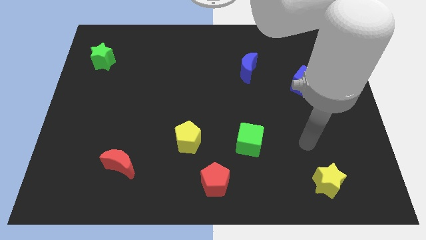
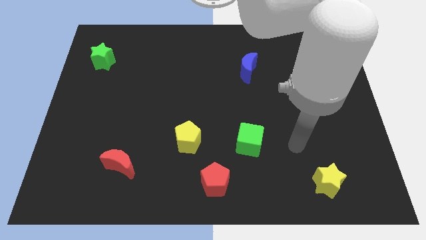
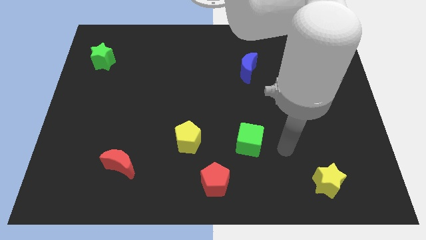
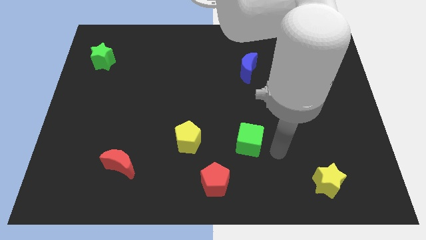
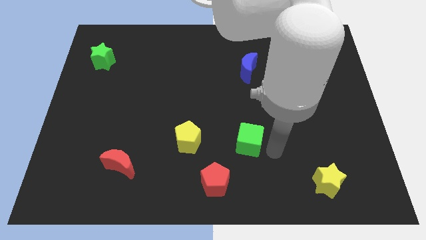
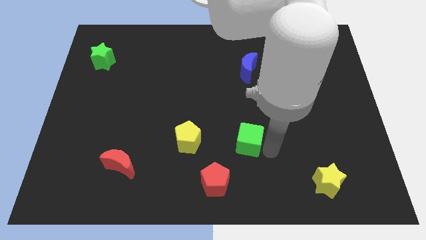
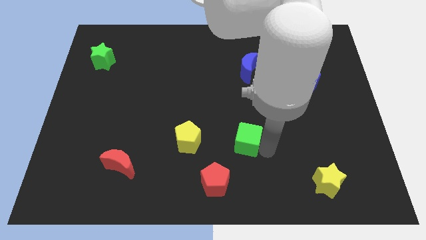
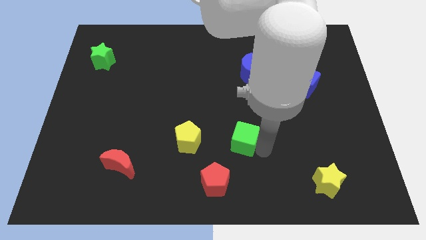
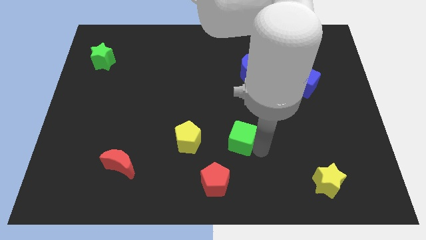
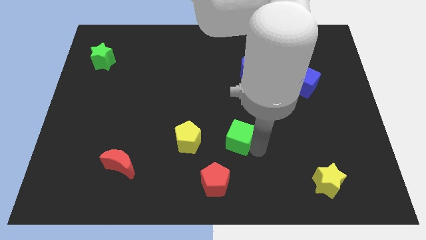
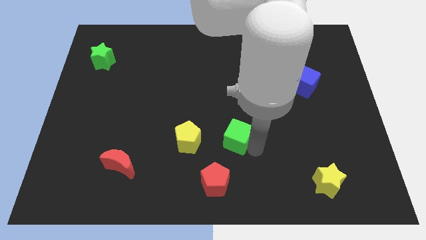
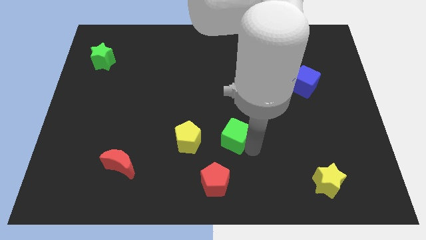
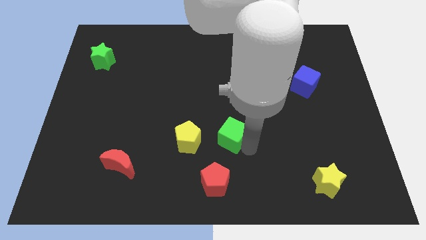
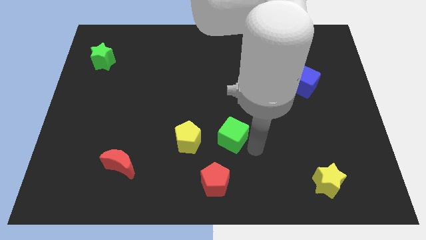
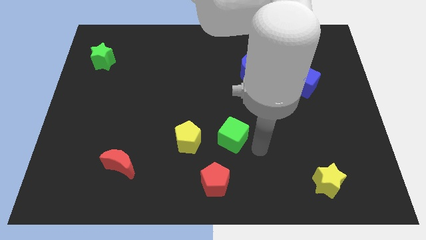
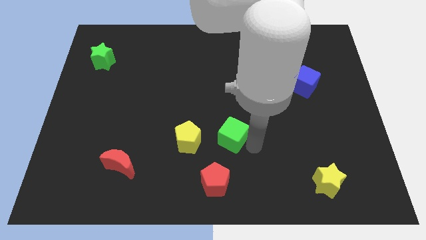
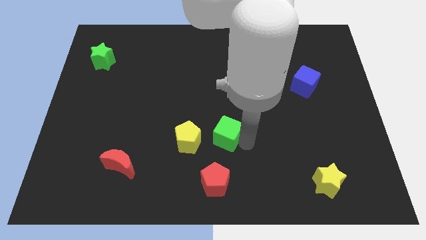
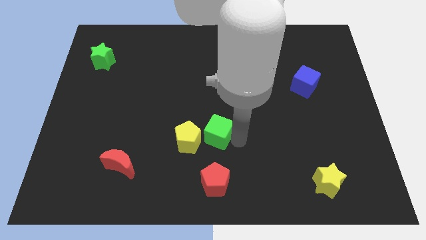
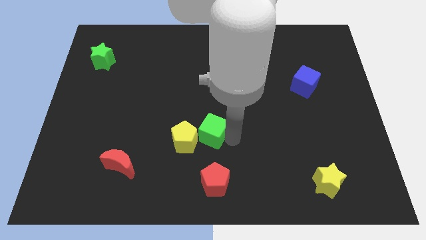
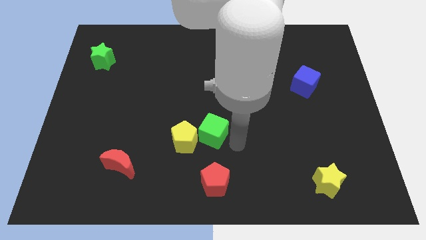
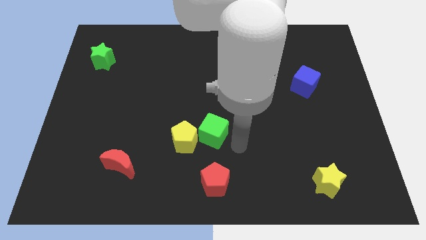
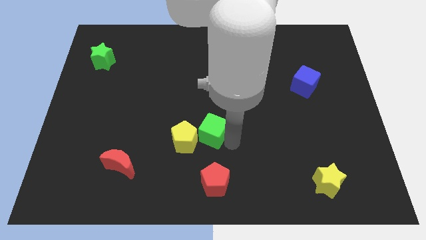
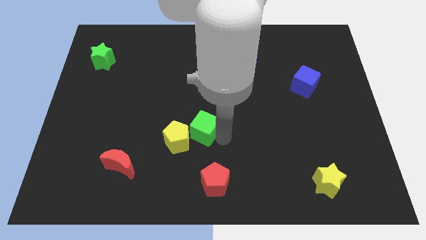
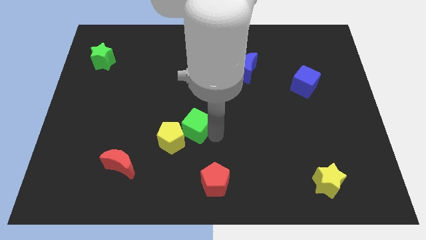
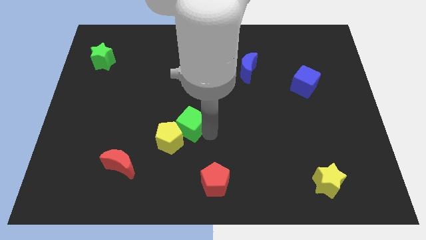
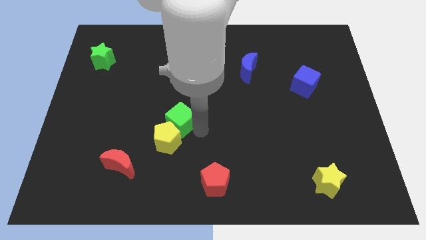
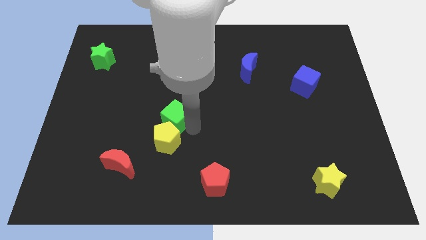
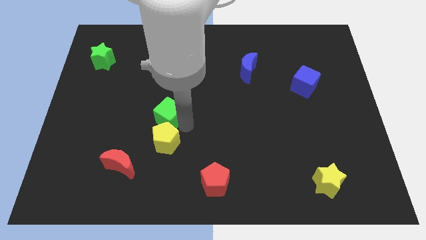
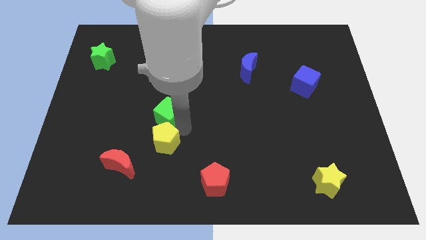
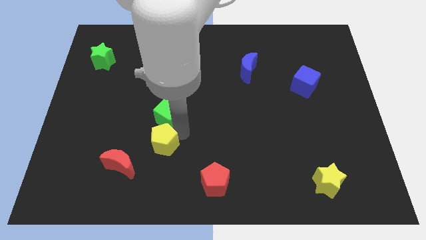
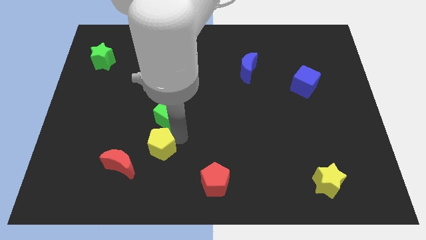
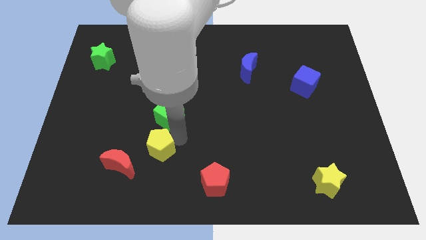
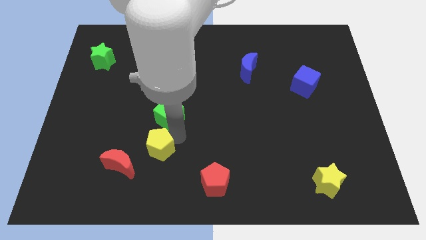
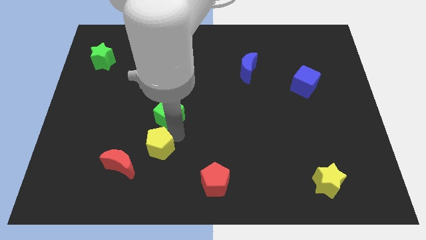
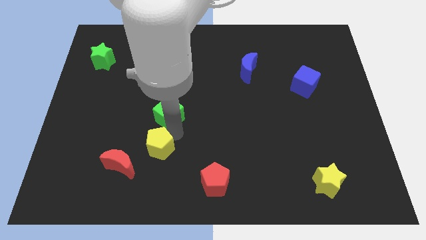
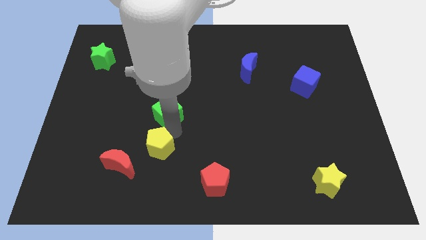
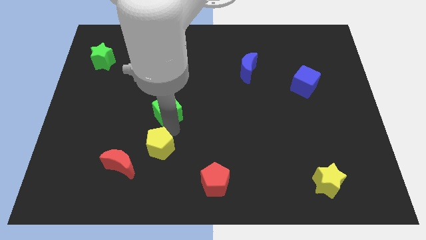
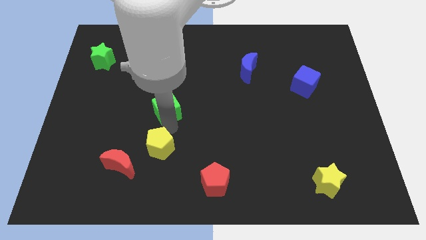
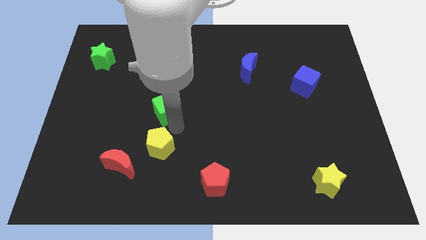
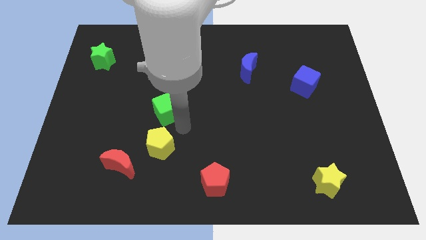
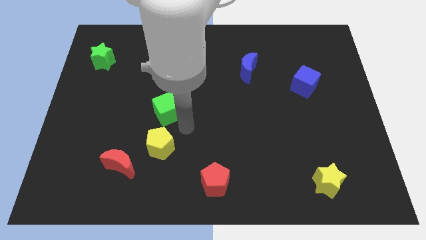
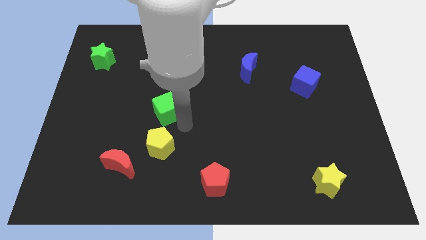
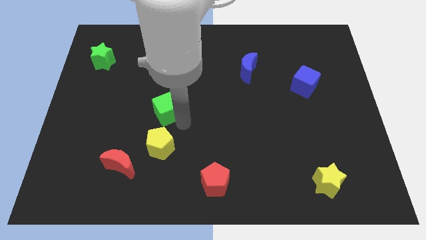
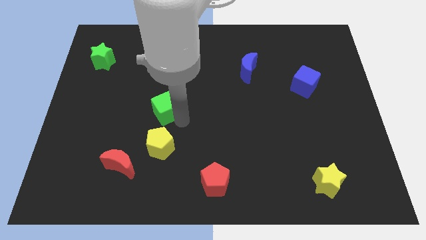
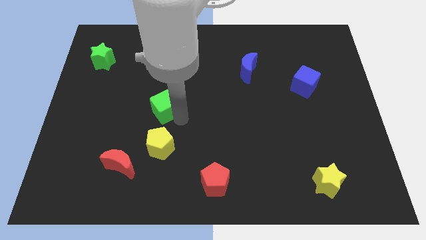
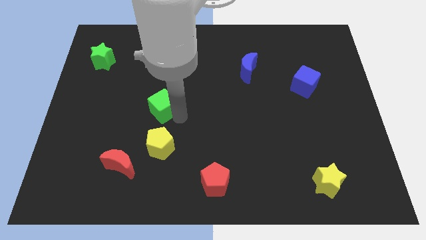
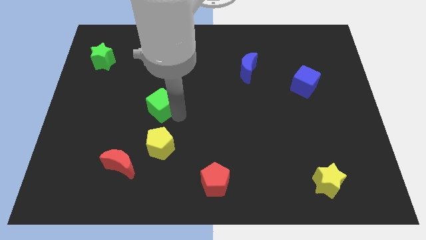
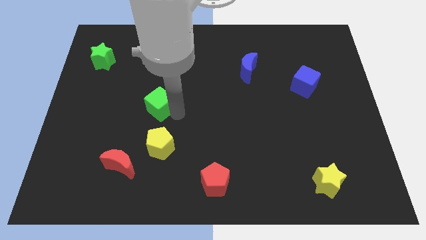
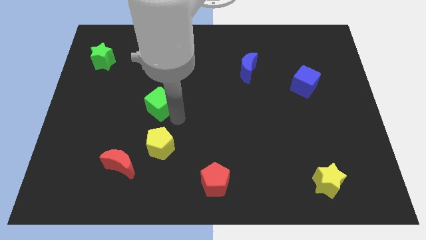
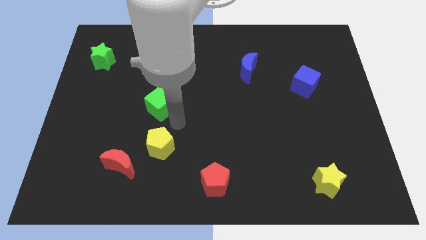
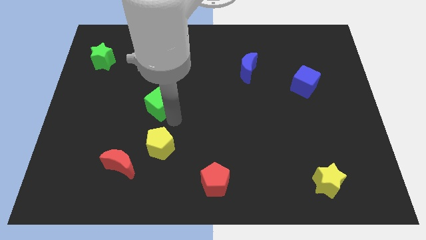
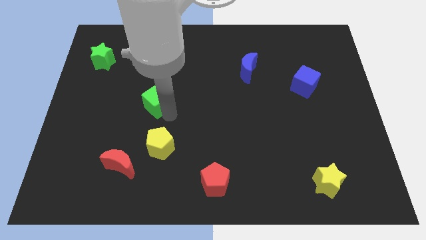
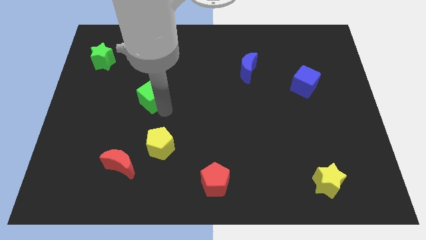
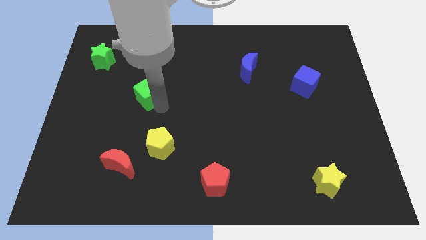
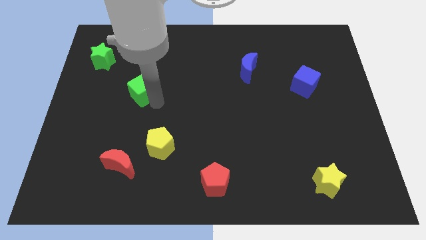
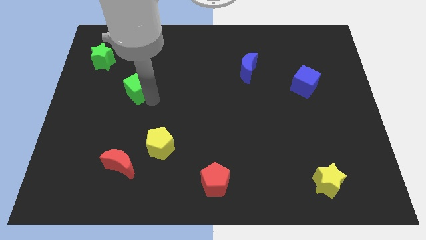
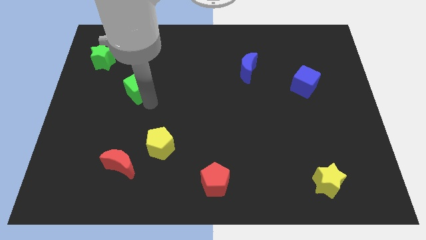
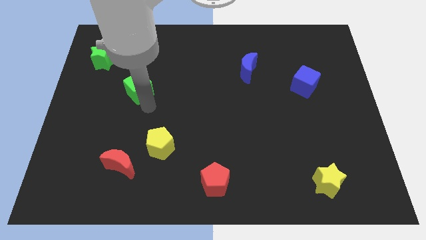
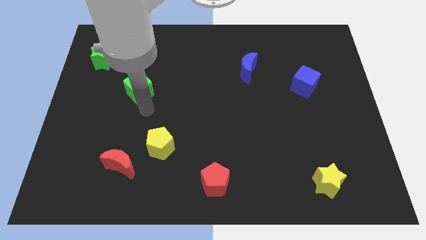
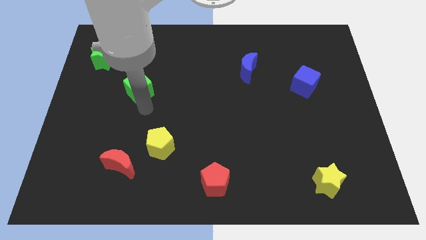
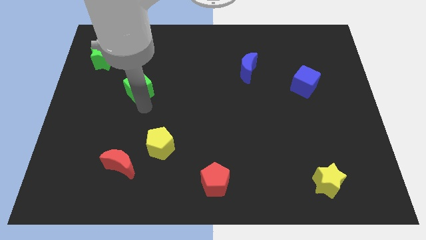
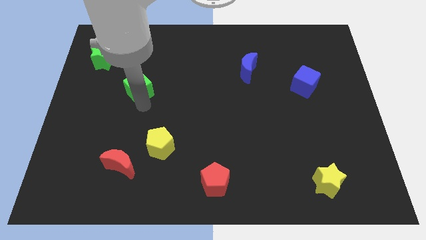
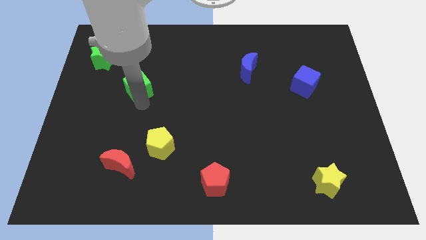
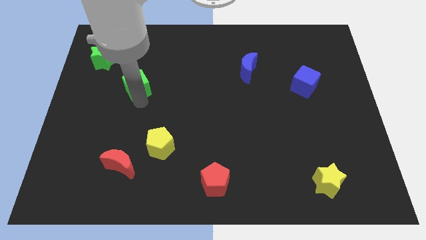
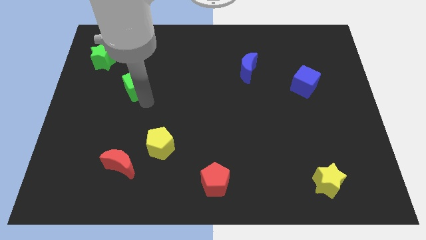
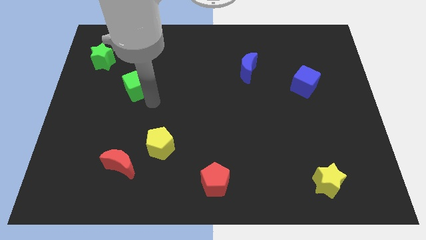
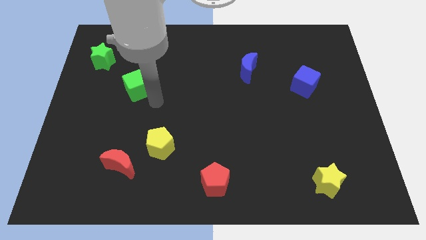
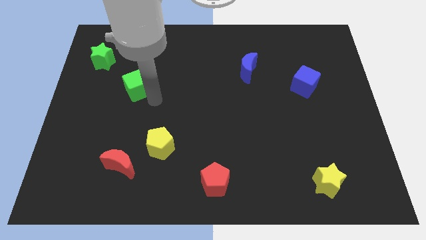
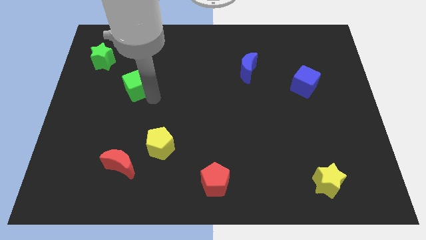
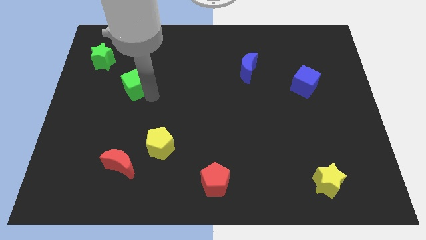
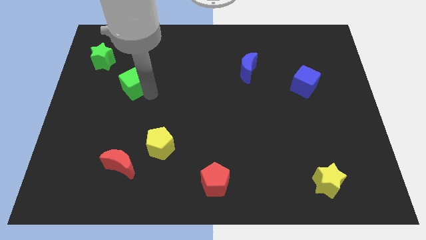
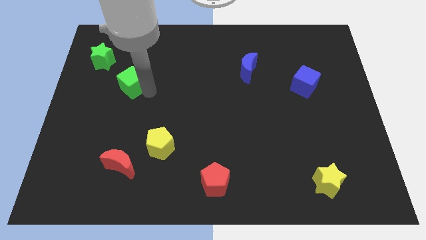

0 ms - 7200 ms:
slide the green cube to the bottom right side of the green star

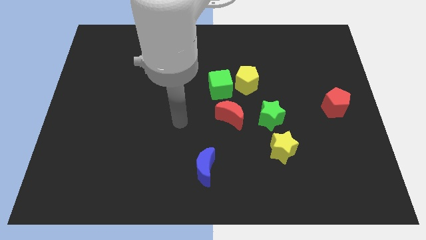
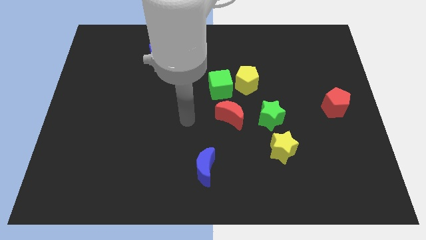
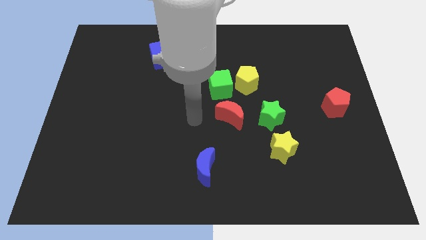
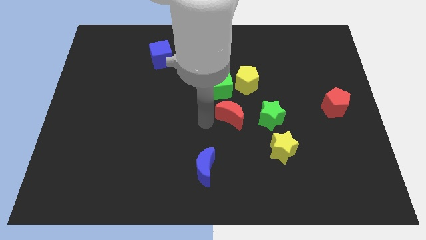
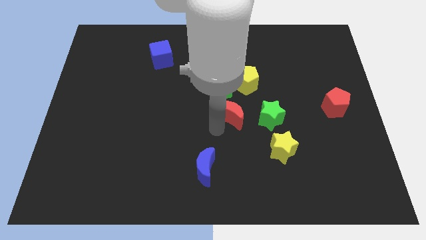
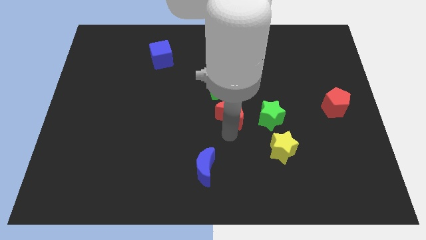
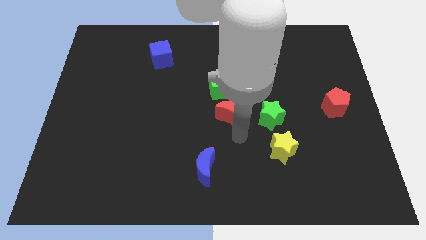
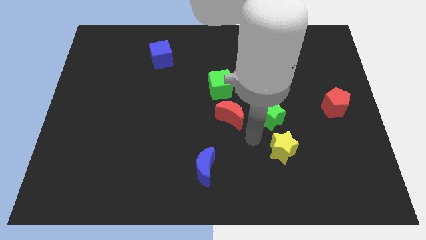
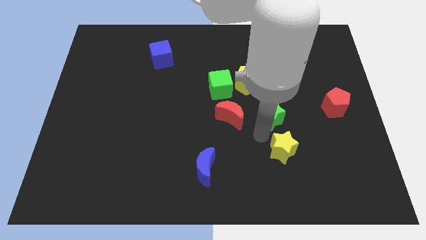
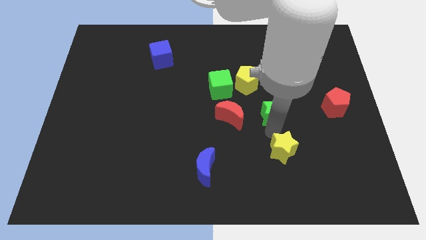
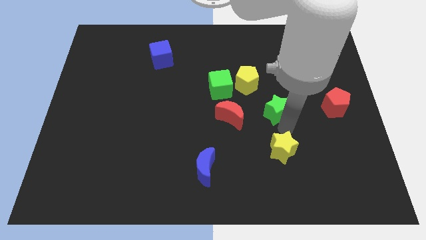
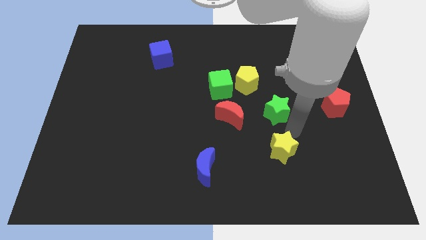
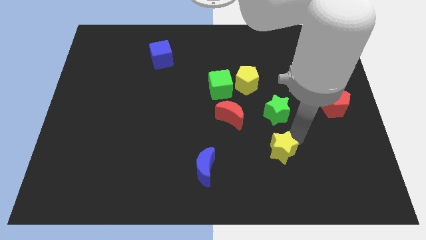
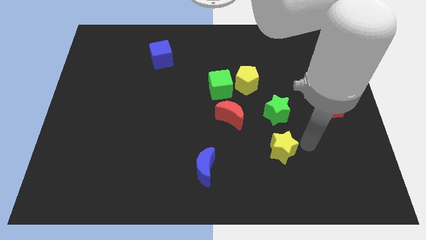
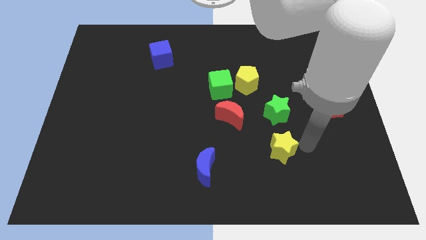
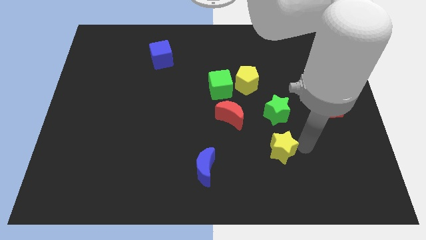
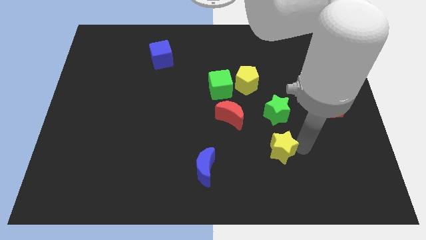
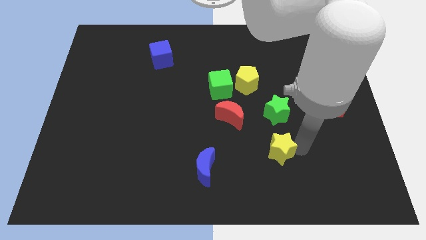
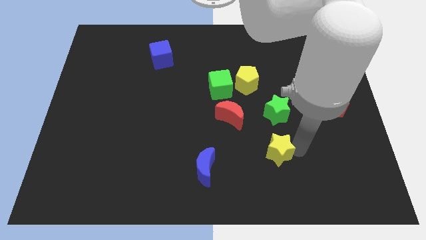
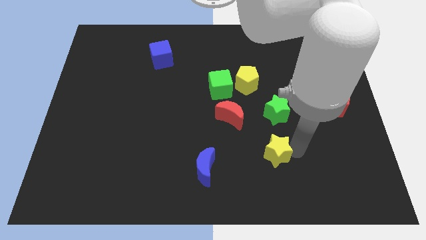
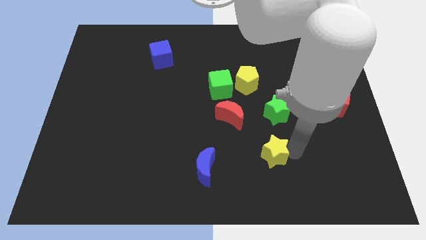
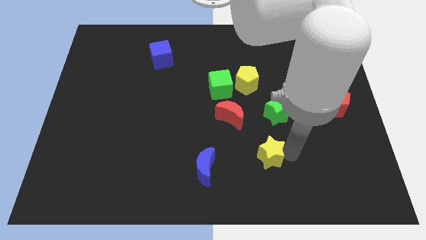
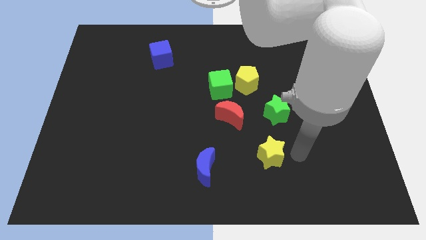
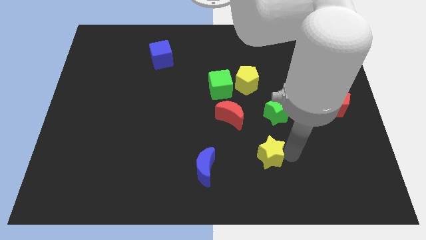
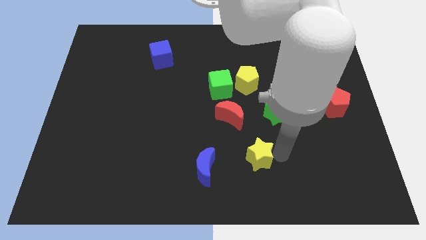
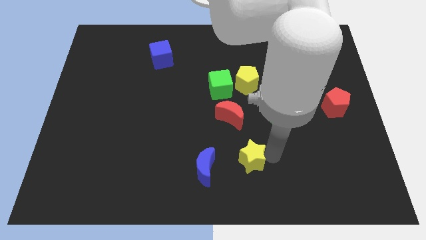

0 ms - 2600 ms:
move the yellow star below the red moon
